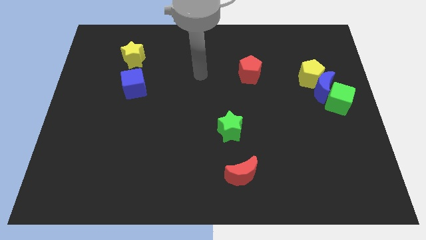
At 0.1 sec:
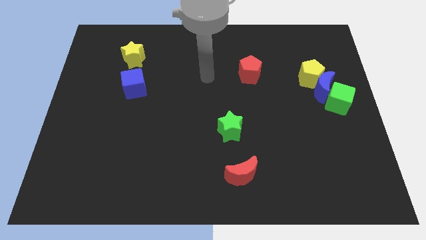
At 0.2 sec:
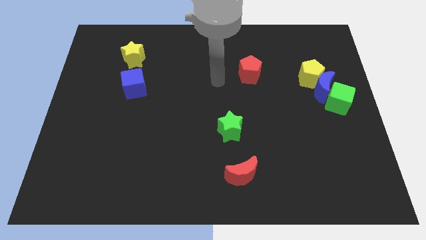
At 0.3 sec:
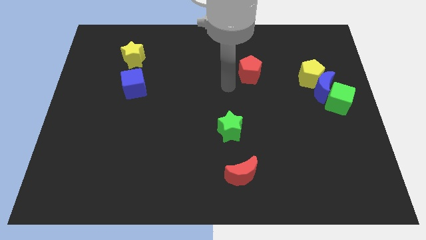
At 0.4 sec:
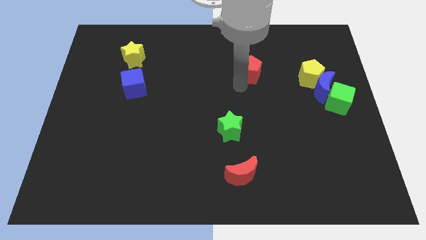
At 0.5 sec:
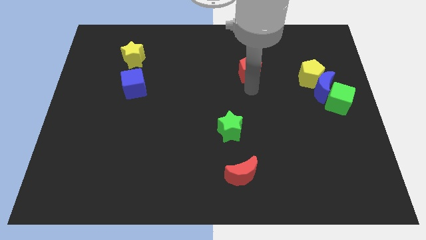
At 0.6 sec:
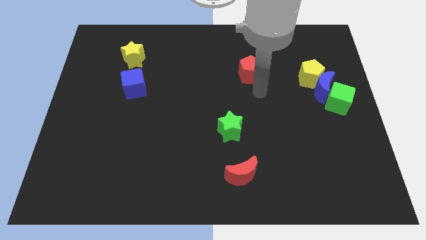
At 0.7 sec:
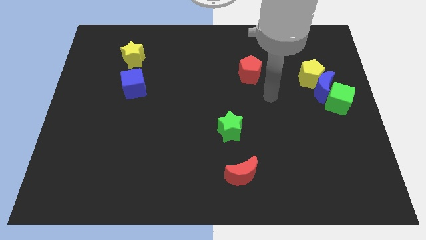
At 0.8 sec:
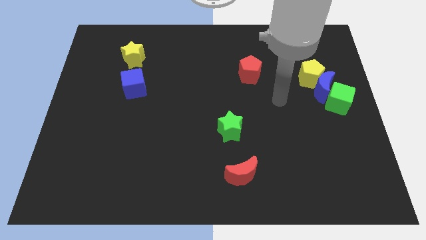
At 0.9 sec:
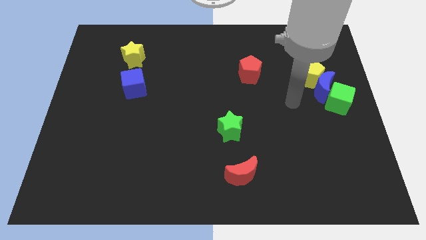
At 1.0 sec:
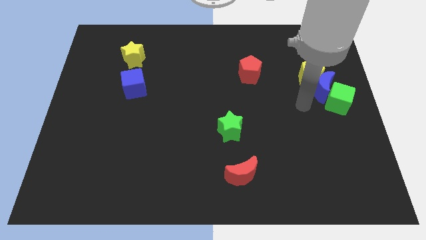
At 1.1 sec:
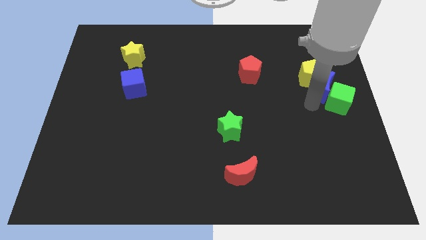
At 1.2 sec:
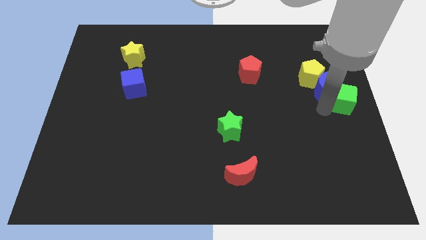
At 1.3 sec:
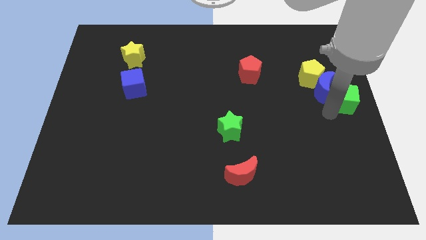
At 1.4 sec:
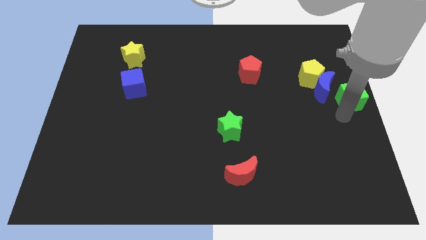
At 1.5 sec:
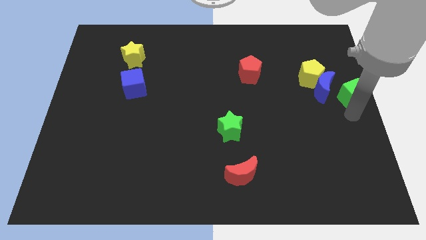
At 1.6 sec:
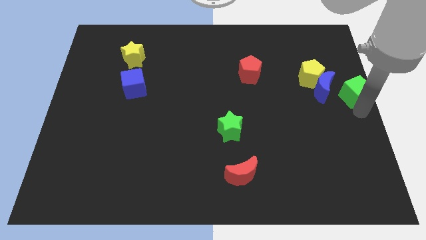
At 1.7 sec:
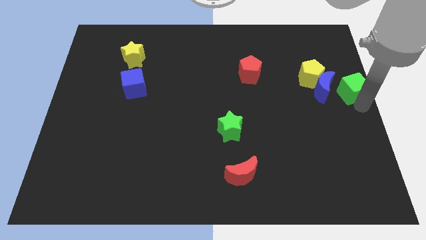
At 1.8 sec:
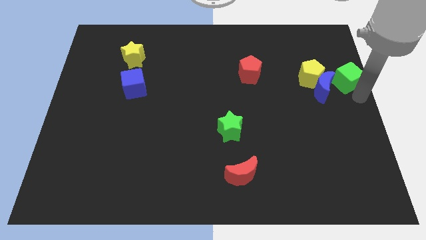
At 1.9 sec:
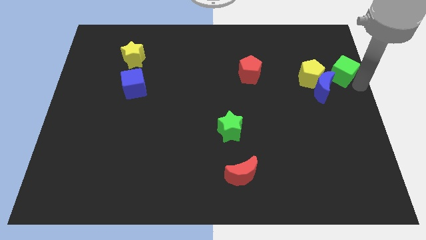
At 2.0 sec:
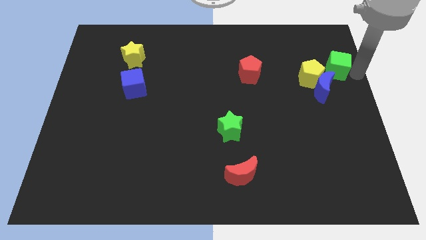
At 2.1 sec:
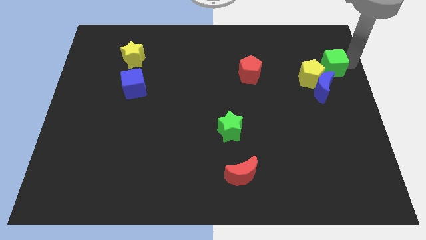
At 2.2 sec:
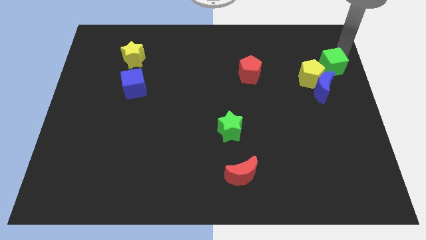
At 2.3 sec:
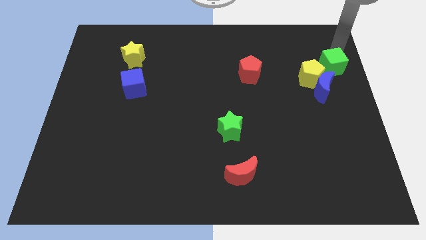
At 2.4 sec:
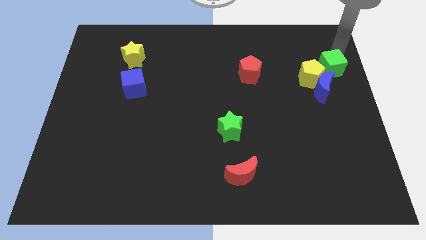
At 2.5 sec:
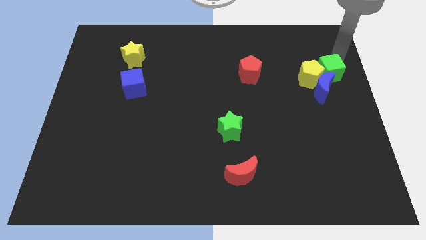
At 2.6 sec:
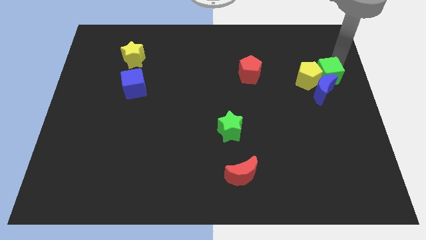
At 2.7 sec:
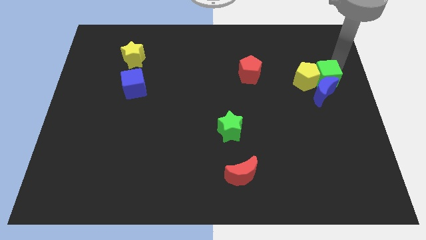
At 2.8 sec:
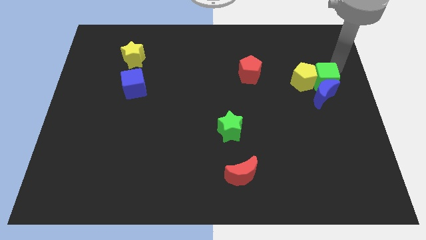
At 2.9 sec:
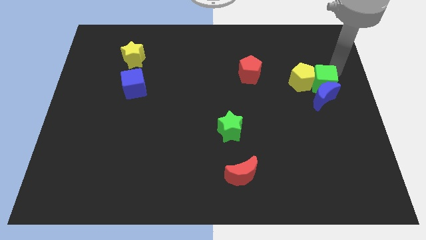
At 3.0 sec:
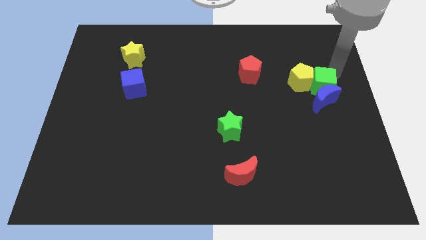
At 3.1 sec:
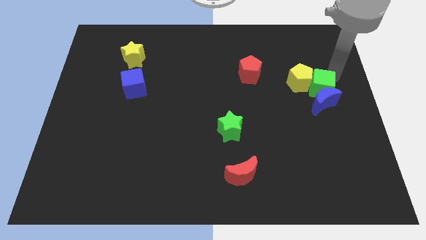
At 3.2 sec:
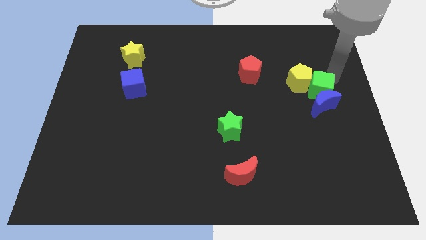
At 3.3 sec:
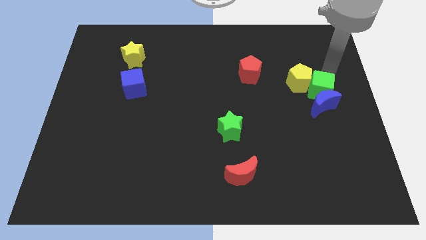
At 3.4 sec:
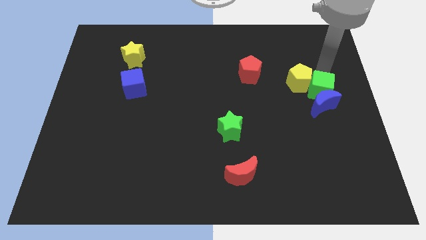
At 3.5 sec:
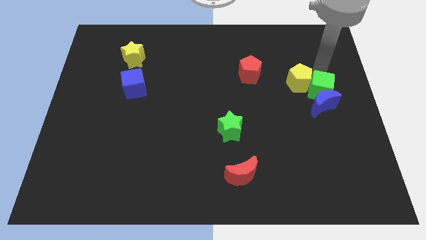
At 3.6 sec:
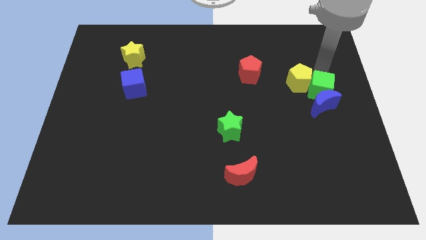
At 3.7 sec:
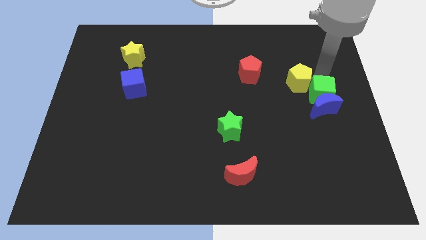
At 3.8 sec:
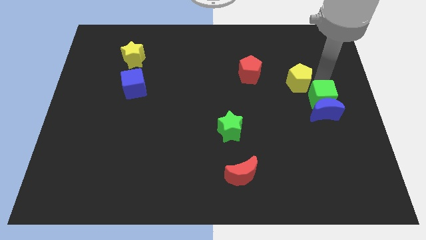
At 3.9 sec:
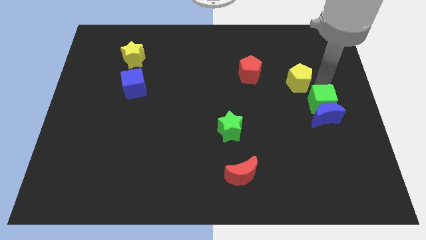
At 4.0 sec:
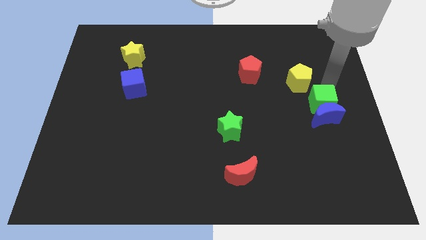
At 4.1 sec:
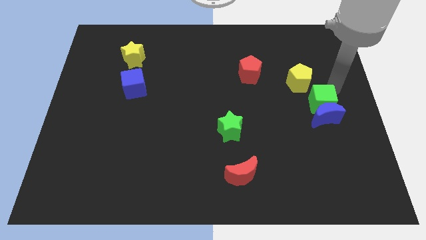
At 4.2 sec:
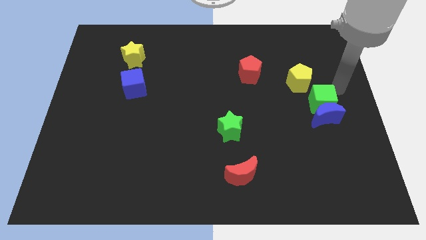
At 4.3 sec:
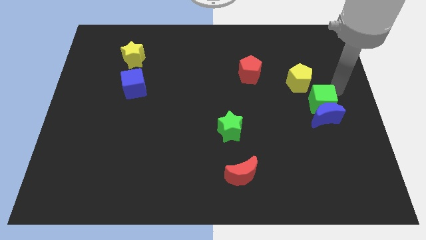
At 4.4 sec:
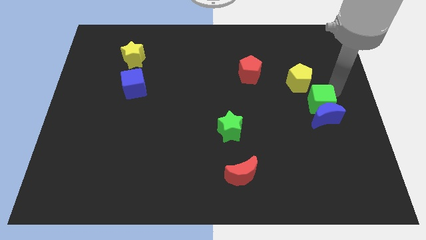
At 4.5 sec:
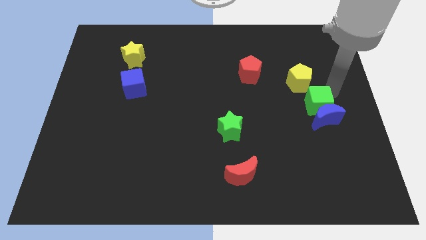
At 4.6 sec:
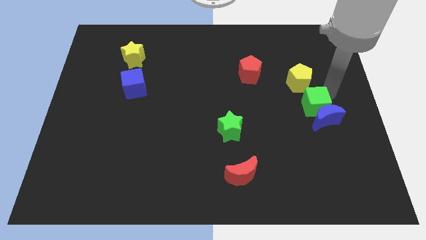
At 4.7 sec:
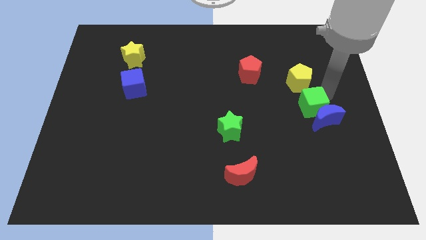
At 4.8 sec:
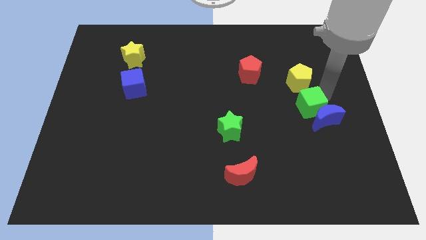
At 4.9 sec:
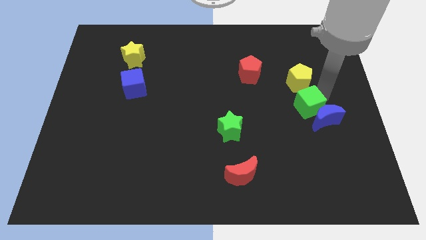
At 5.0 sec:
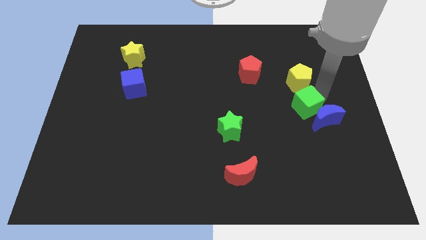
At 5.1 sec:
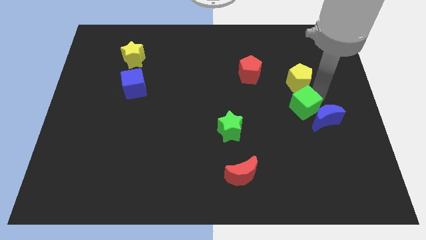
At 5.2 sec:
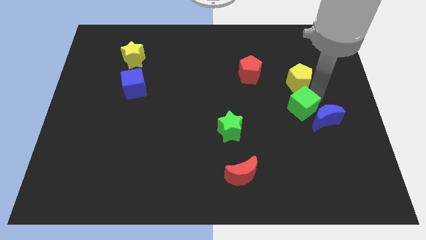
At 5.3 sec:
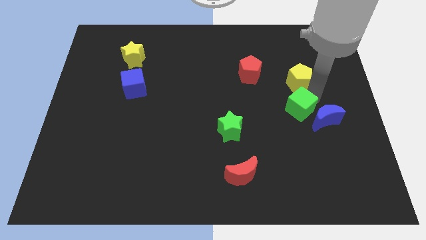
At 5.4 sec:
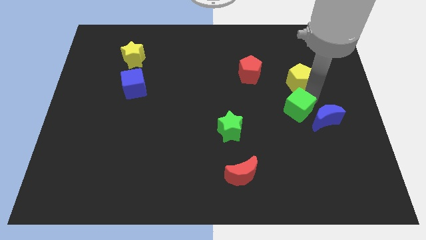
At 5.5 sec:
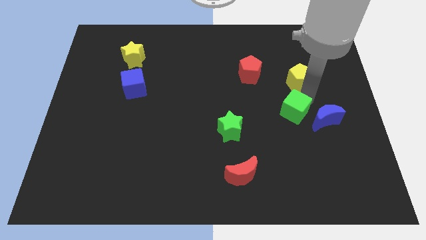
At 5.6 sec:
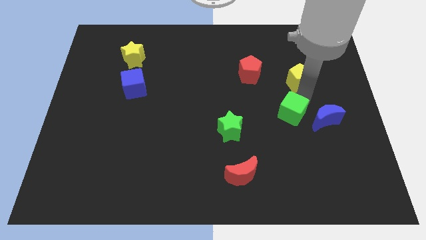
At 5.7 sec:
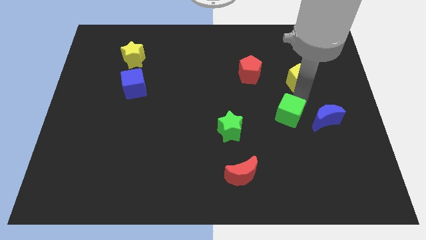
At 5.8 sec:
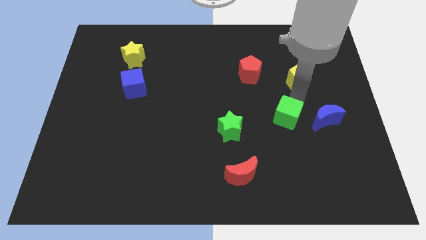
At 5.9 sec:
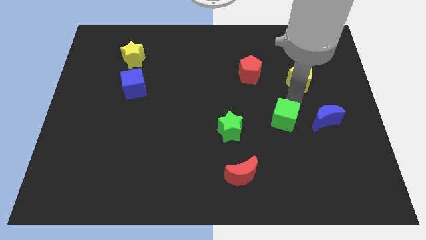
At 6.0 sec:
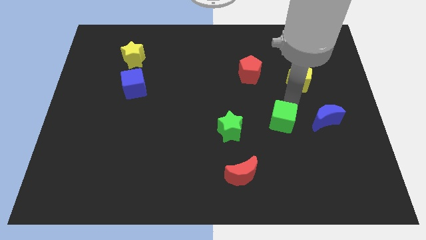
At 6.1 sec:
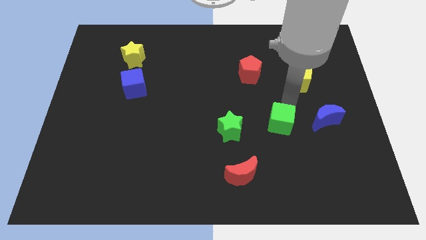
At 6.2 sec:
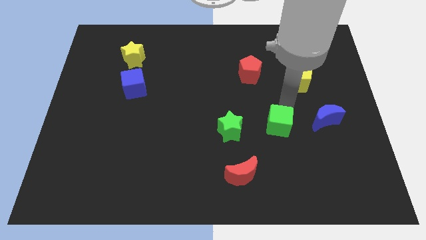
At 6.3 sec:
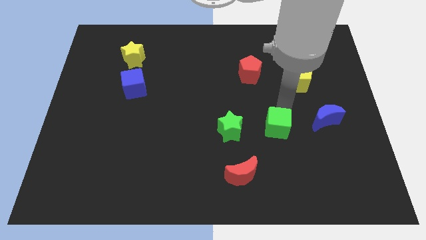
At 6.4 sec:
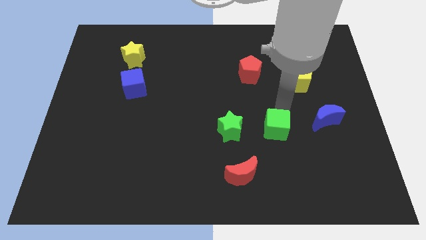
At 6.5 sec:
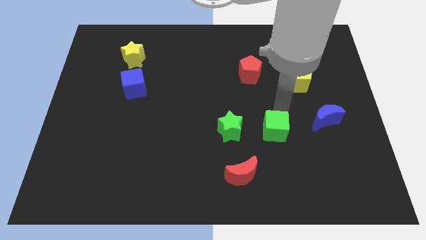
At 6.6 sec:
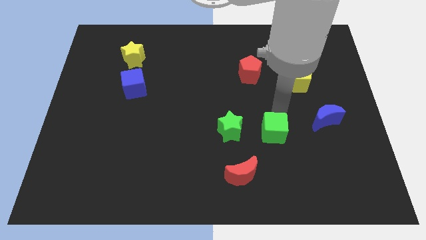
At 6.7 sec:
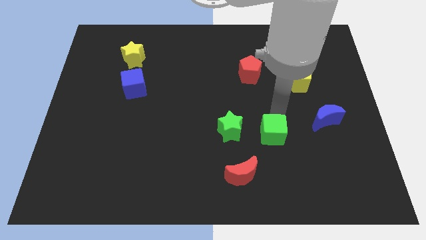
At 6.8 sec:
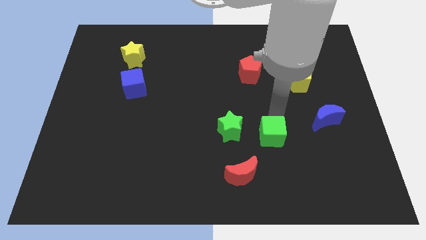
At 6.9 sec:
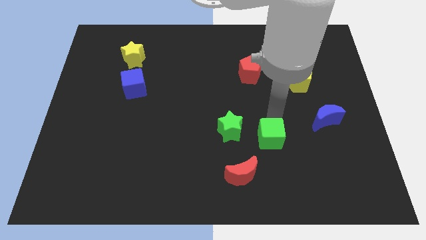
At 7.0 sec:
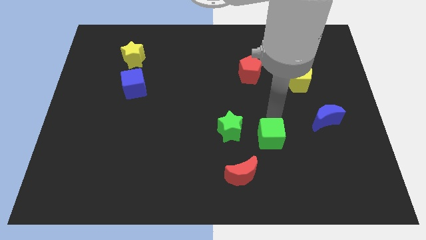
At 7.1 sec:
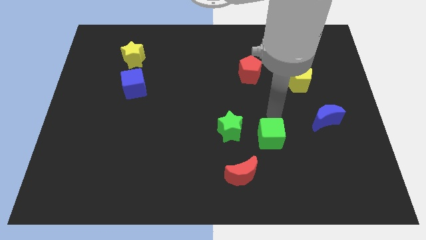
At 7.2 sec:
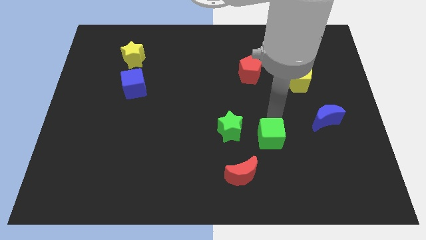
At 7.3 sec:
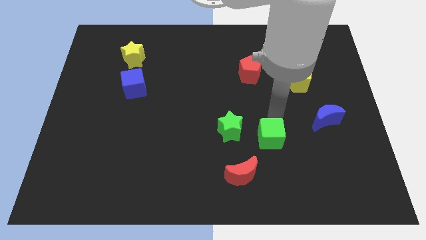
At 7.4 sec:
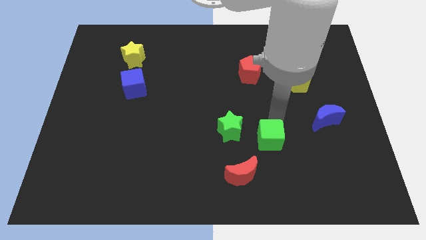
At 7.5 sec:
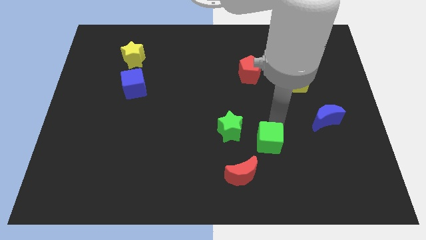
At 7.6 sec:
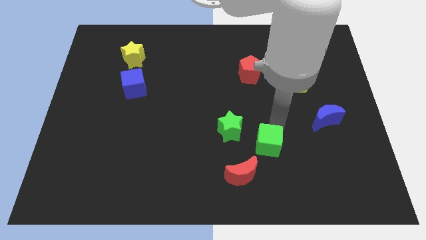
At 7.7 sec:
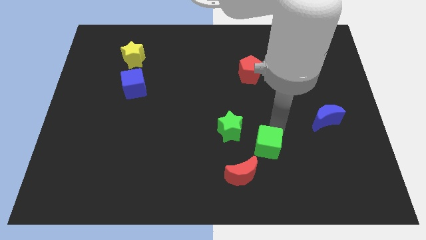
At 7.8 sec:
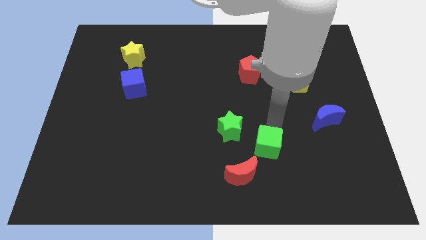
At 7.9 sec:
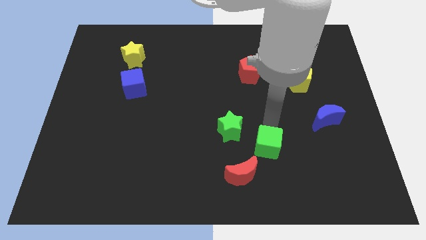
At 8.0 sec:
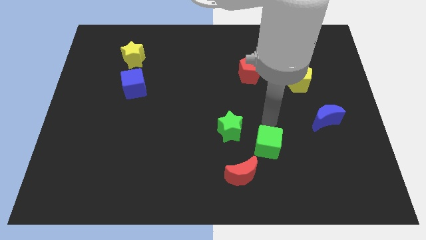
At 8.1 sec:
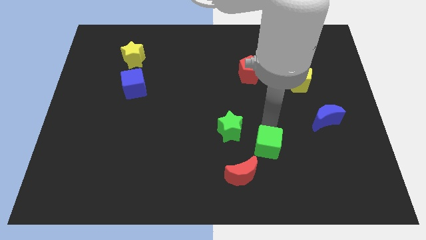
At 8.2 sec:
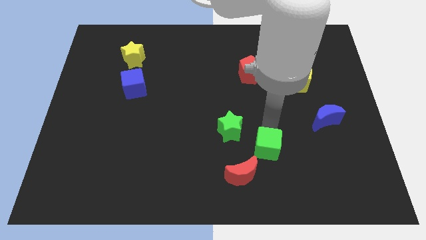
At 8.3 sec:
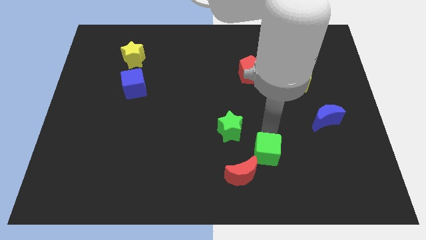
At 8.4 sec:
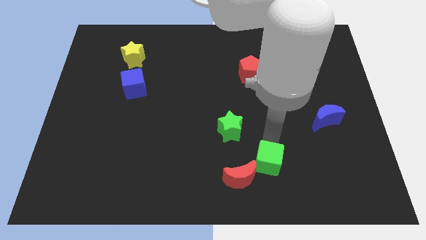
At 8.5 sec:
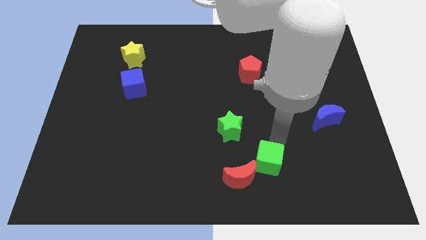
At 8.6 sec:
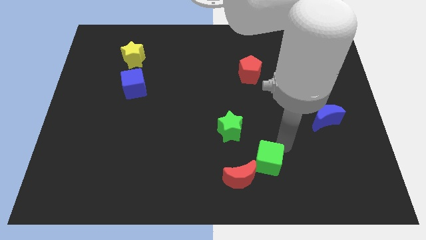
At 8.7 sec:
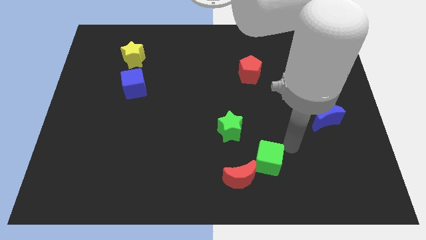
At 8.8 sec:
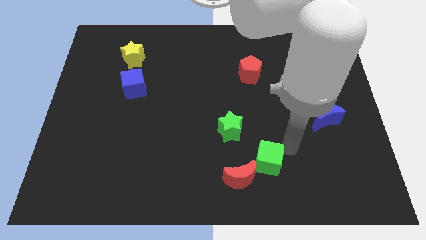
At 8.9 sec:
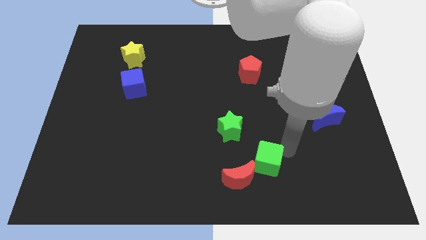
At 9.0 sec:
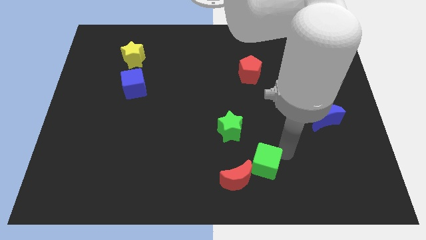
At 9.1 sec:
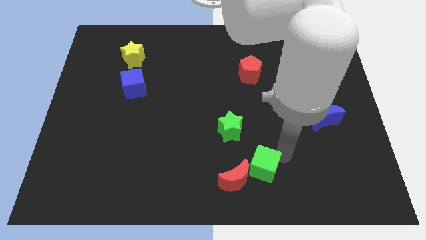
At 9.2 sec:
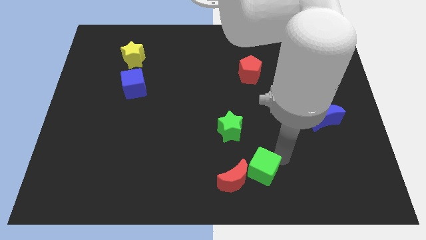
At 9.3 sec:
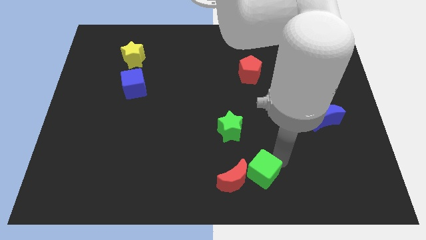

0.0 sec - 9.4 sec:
slide the green cube towards the red moon
